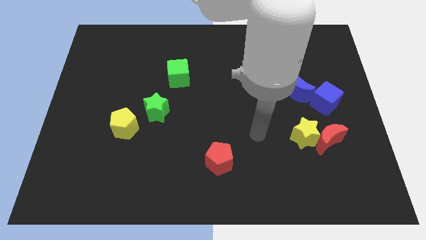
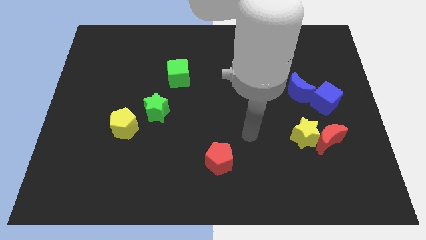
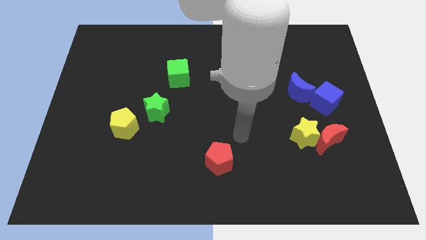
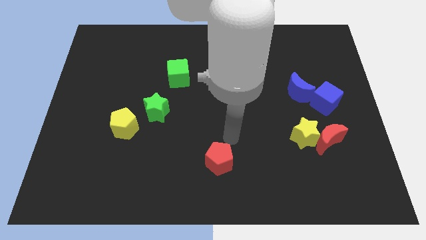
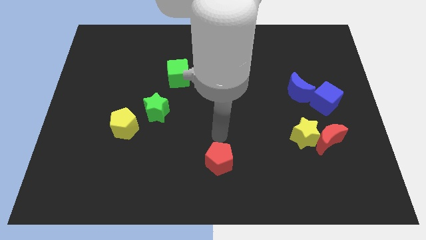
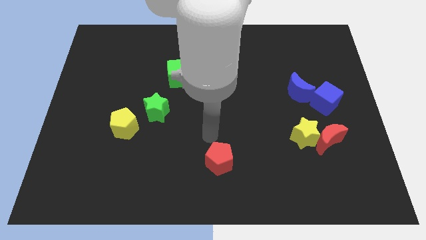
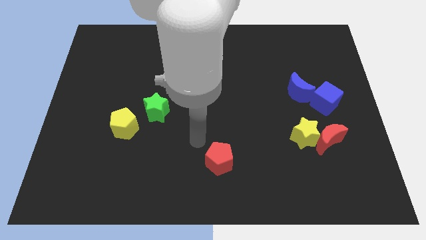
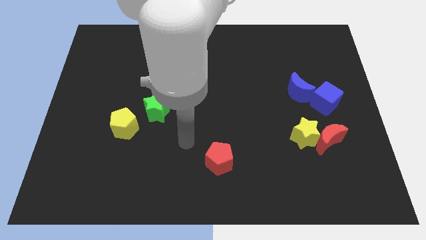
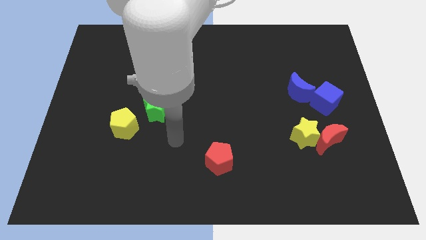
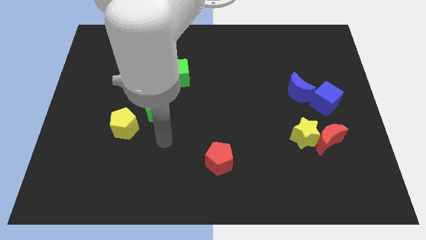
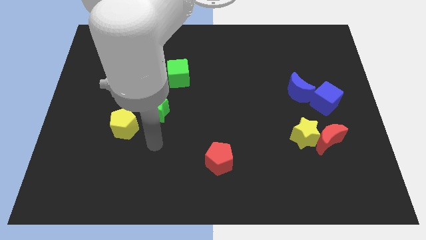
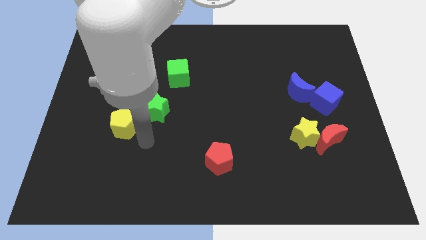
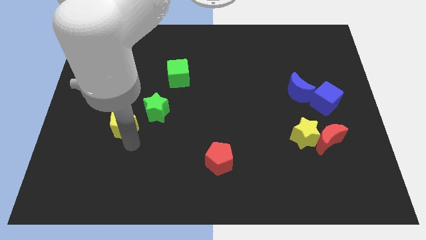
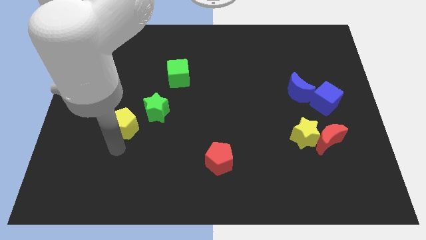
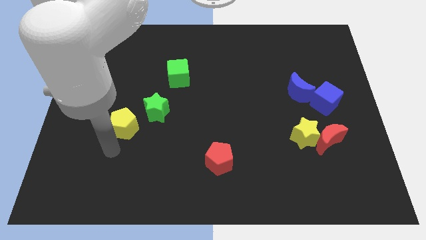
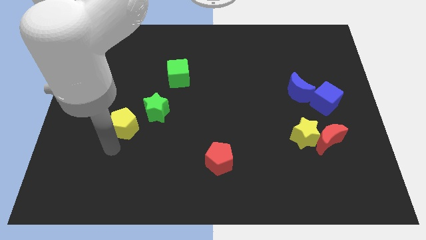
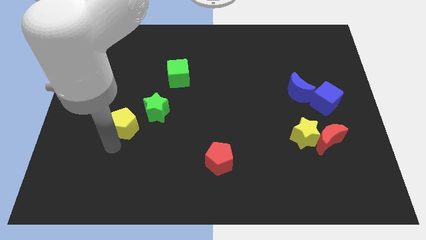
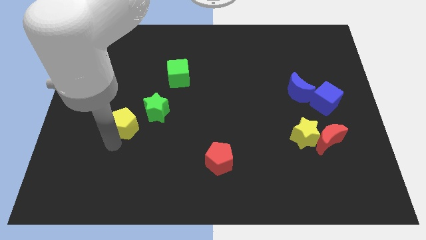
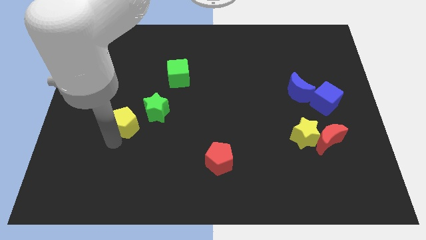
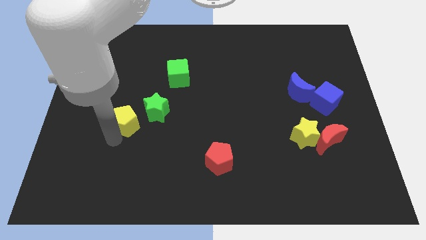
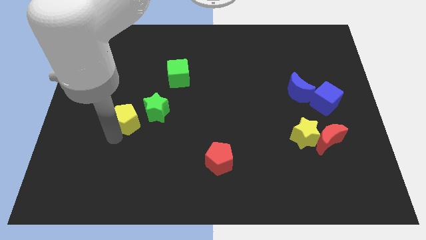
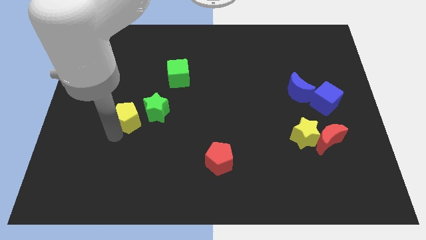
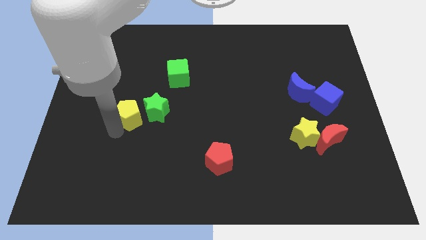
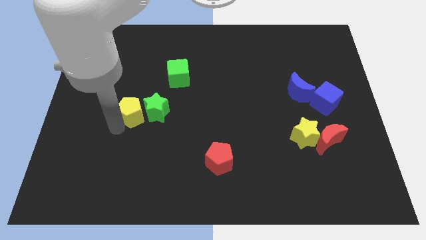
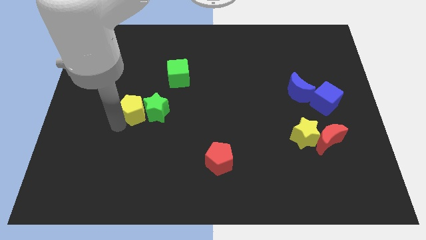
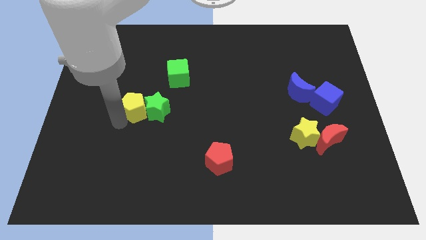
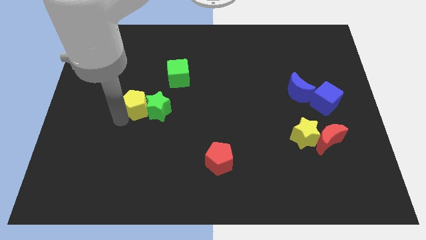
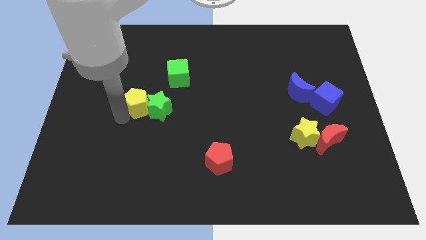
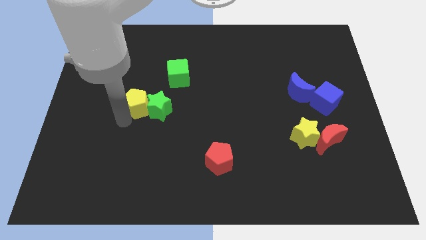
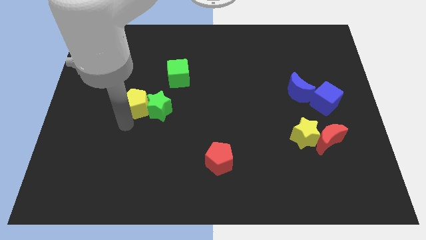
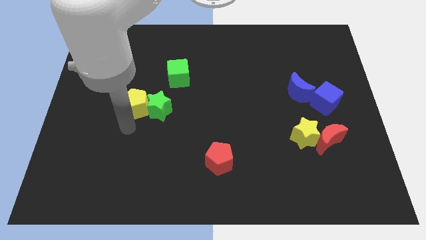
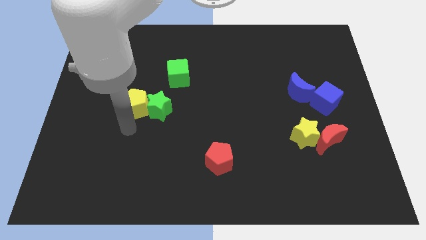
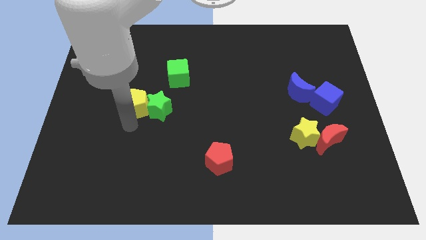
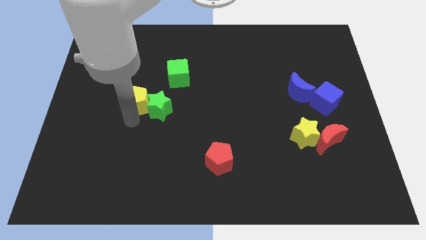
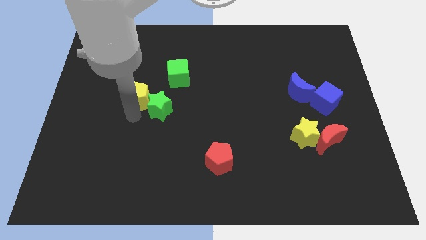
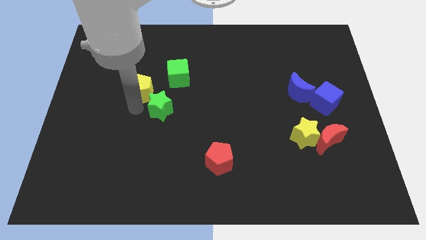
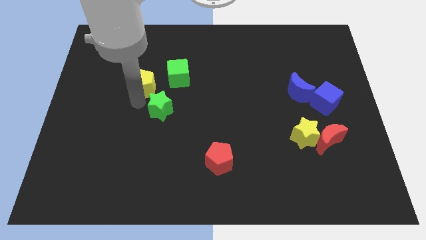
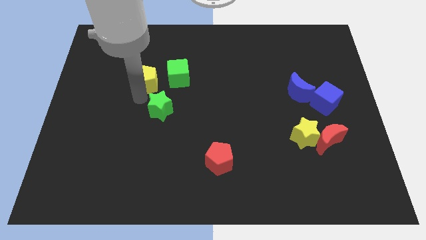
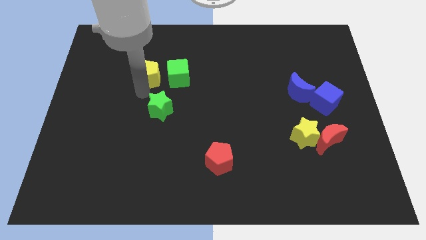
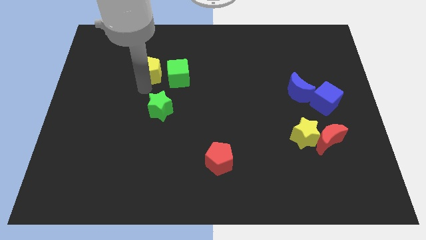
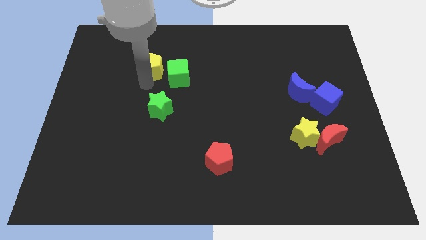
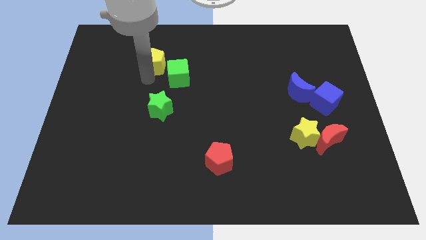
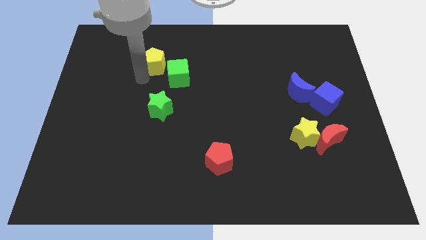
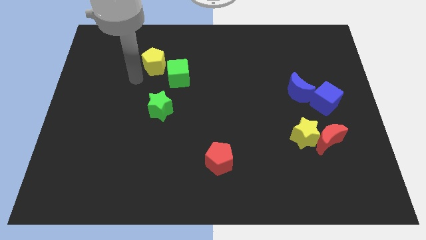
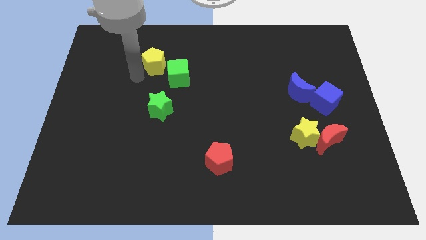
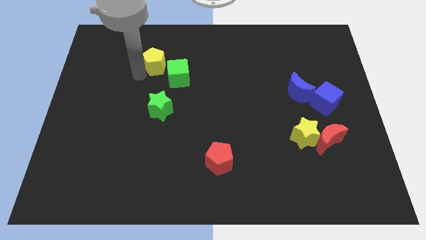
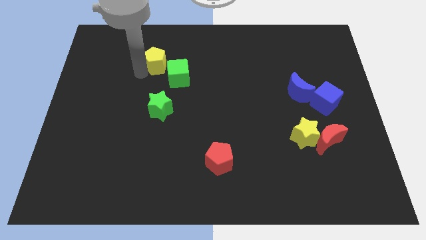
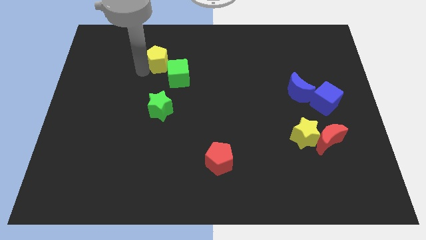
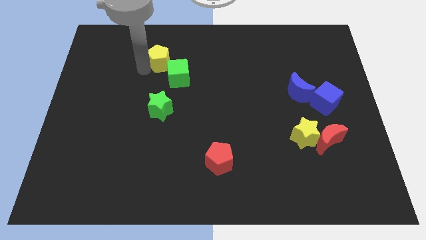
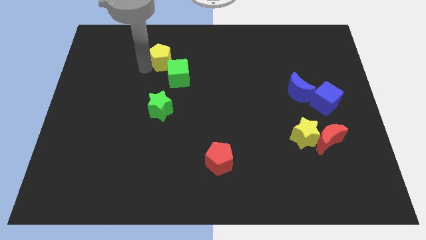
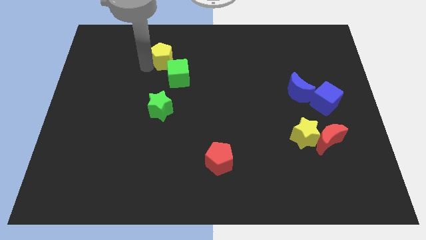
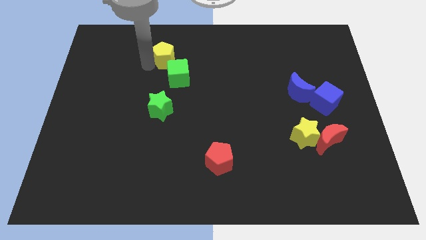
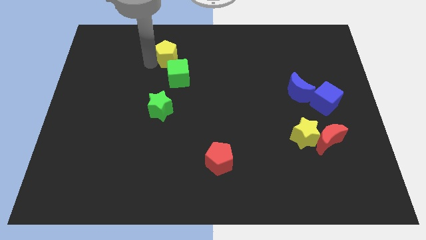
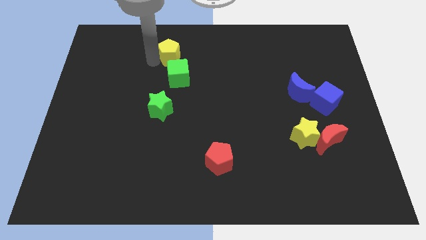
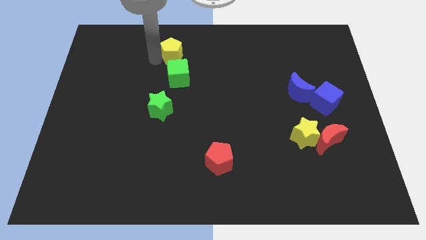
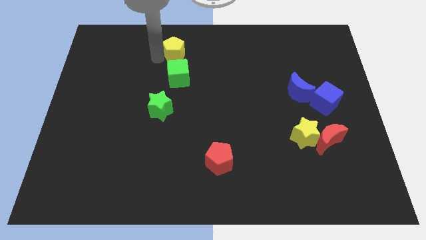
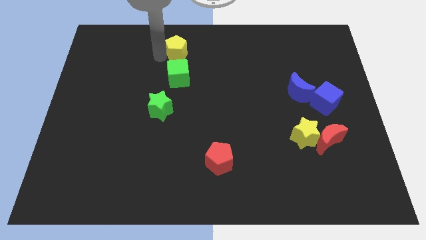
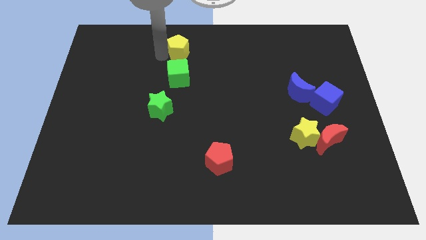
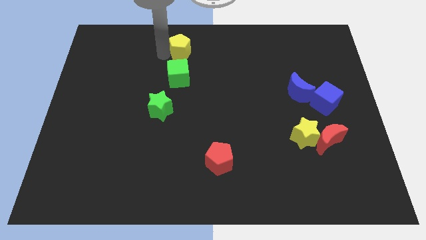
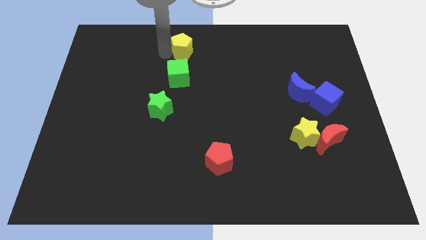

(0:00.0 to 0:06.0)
move the yellow pentagon to the towards your base

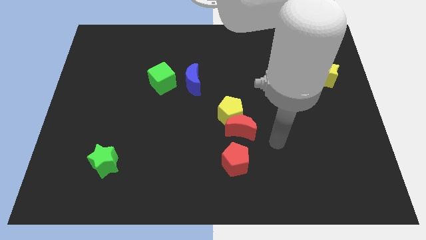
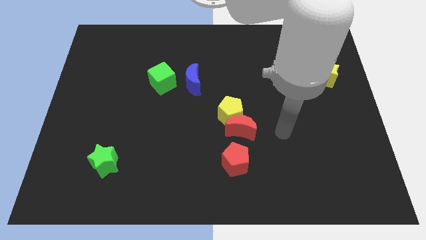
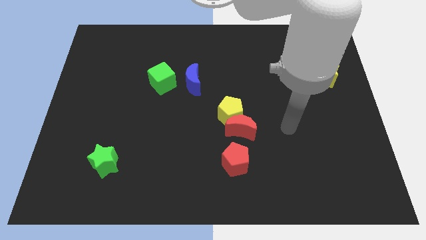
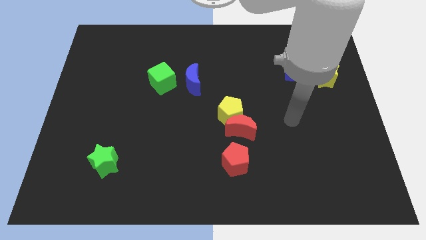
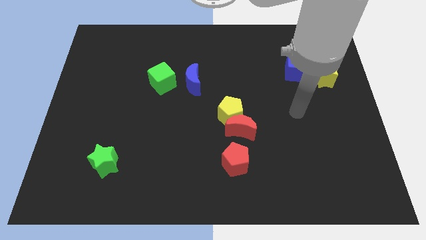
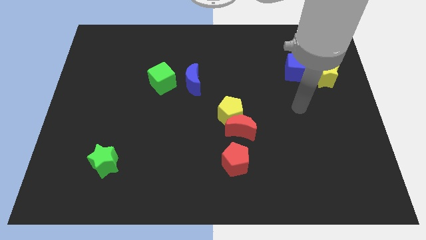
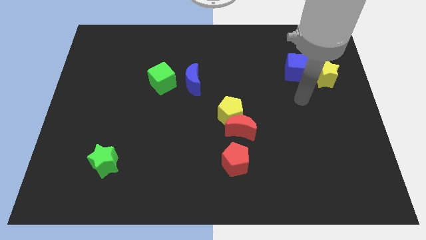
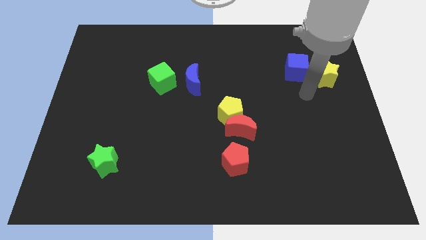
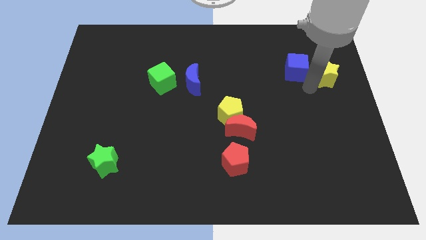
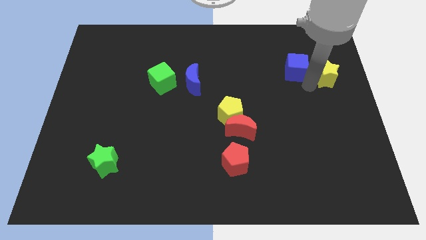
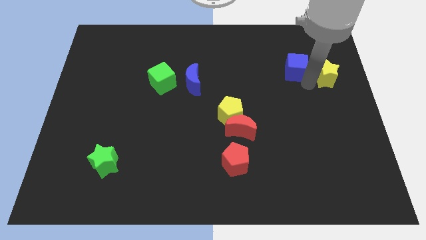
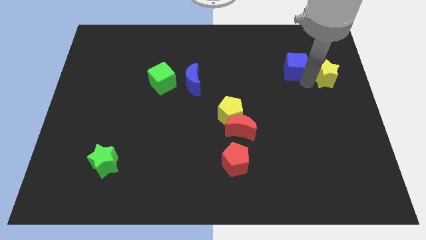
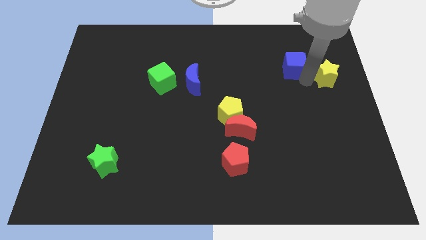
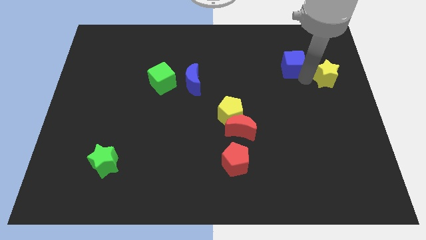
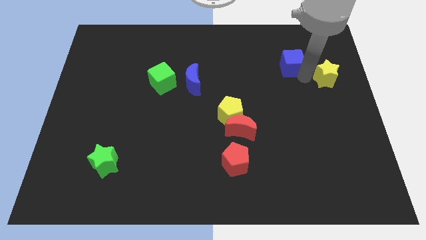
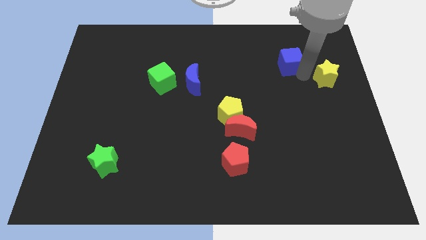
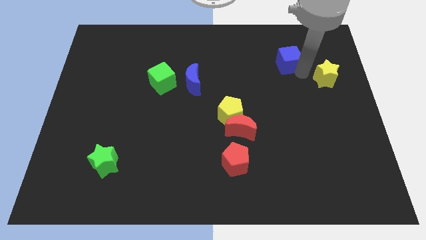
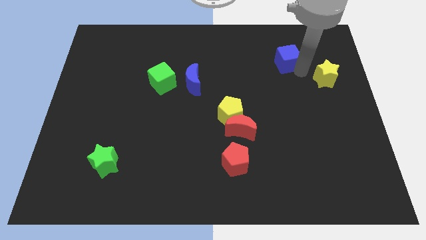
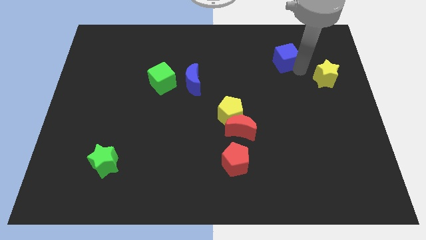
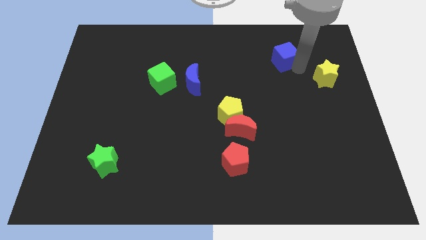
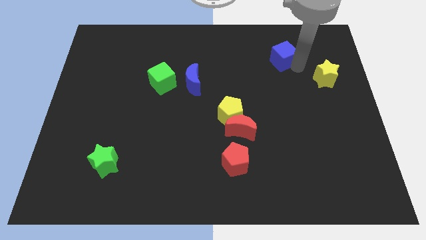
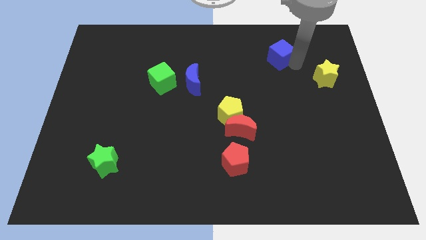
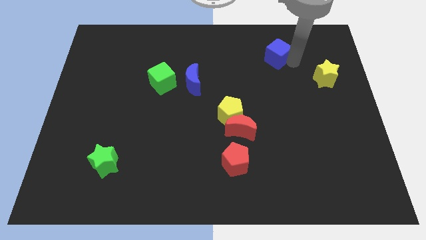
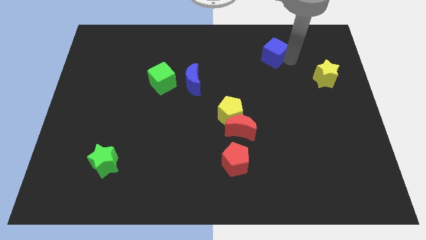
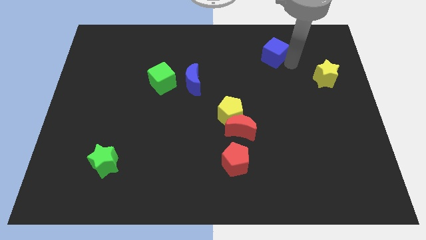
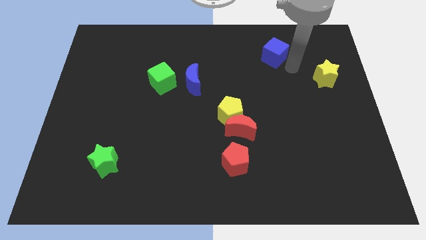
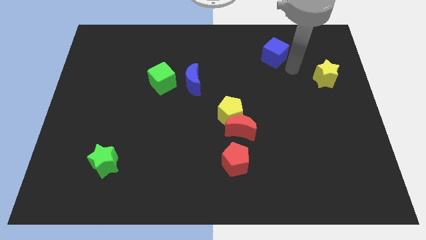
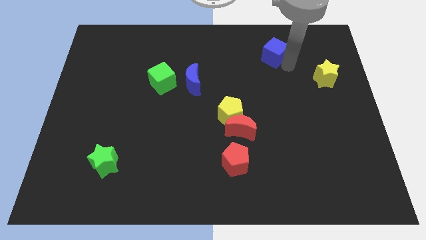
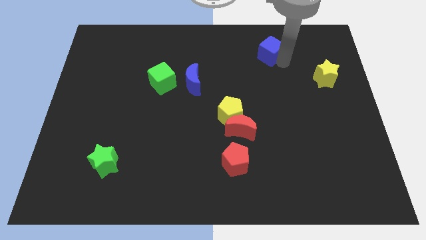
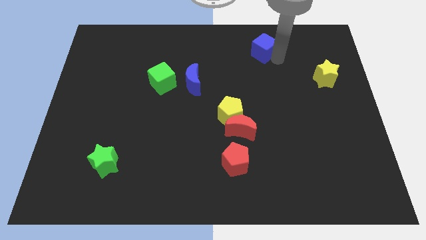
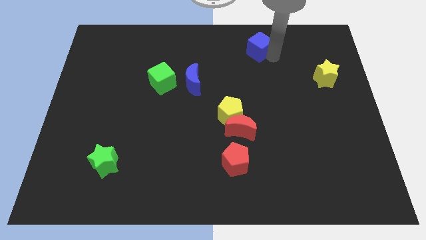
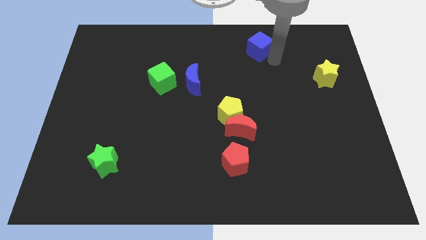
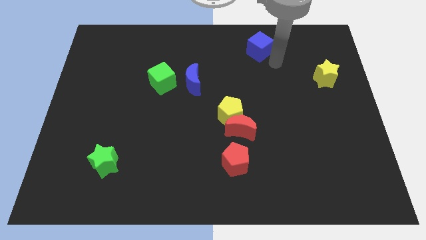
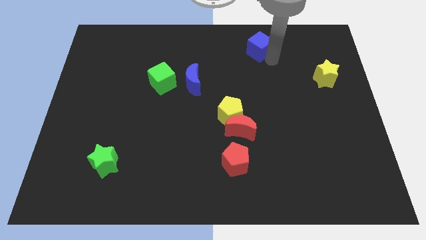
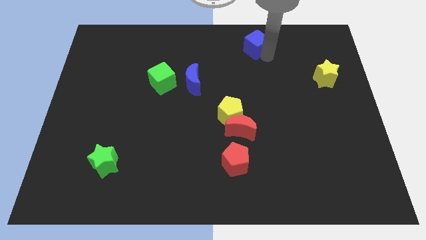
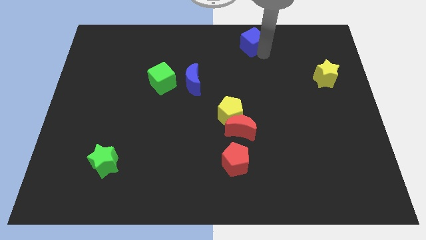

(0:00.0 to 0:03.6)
move the blue cube to the top side
